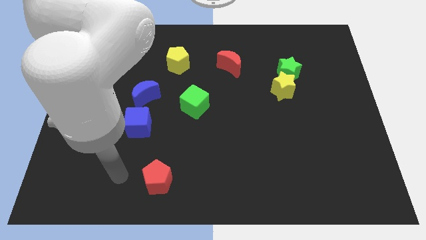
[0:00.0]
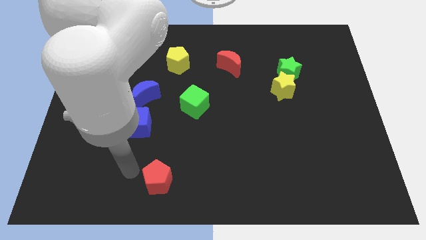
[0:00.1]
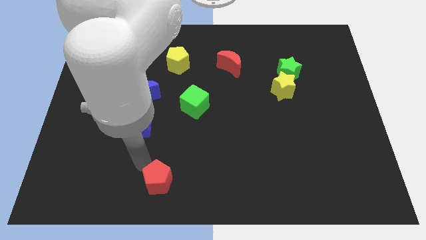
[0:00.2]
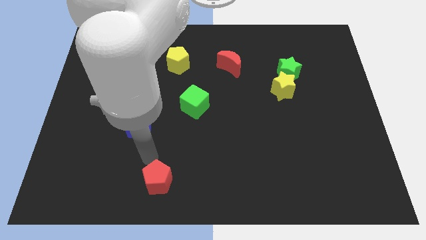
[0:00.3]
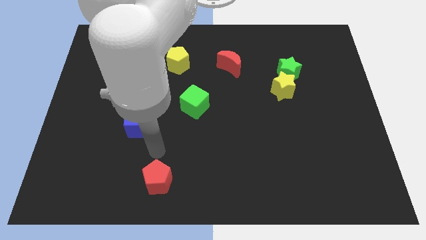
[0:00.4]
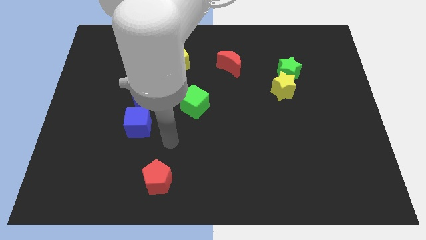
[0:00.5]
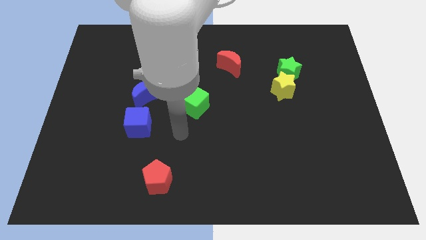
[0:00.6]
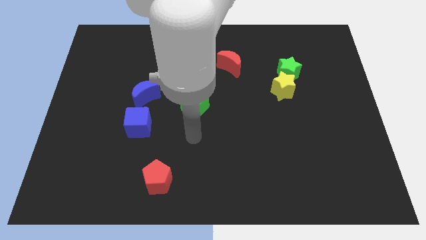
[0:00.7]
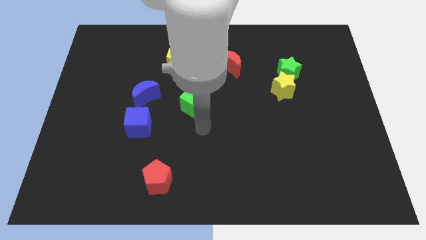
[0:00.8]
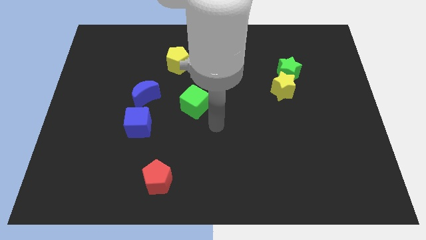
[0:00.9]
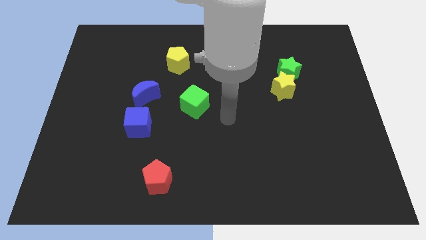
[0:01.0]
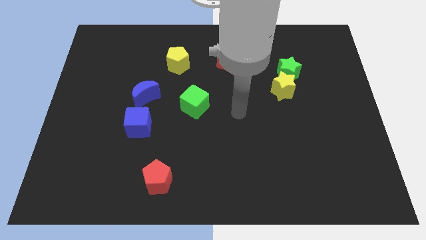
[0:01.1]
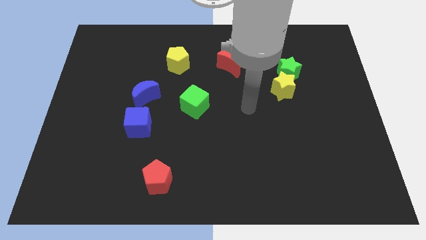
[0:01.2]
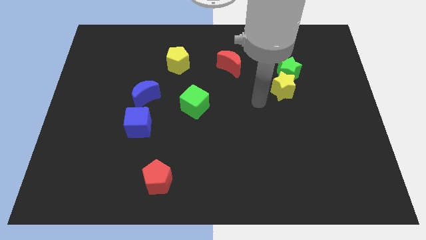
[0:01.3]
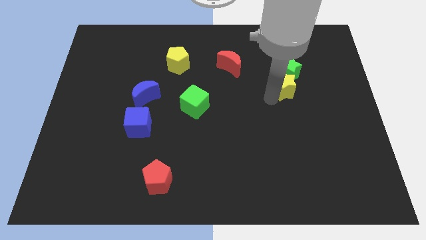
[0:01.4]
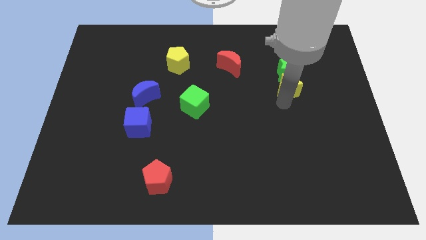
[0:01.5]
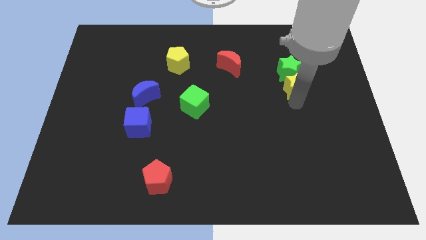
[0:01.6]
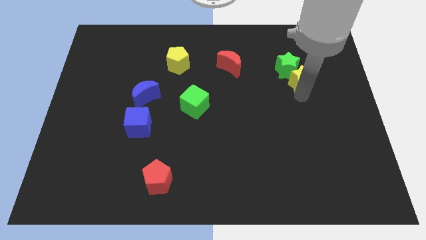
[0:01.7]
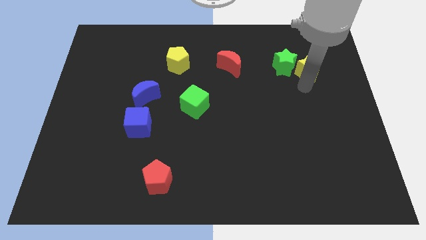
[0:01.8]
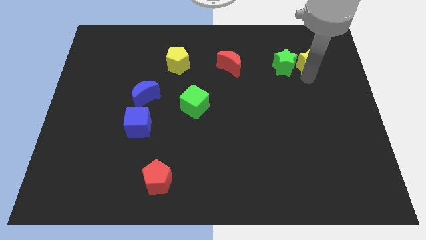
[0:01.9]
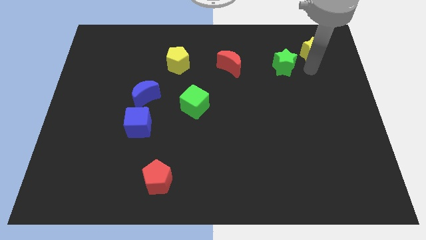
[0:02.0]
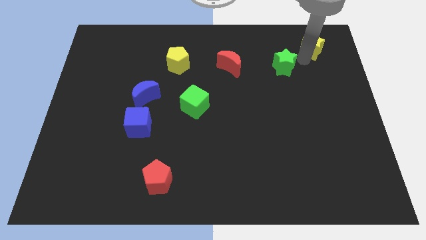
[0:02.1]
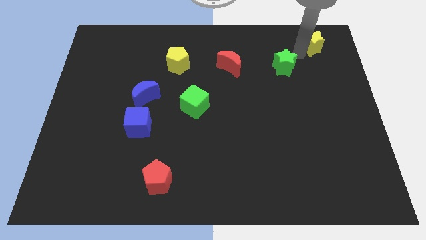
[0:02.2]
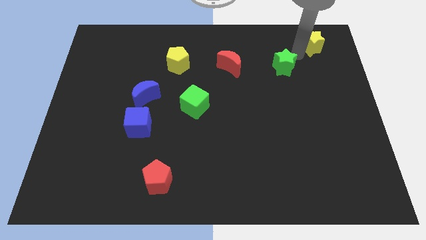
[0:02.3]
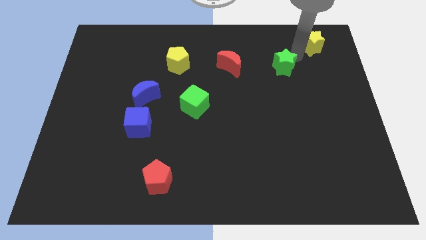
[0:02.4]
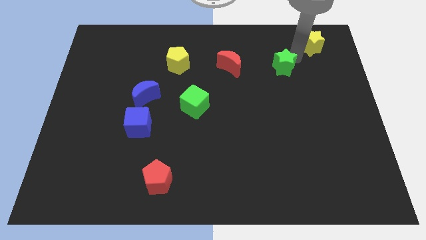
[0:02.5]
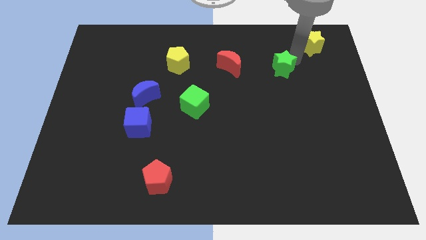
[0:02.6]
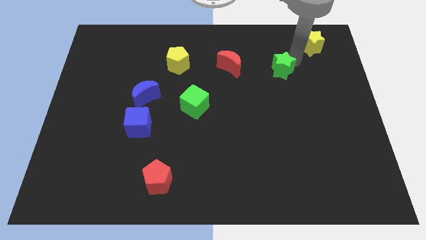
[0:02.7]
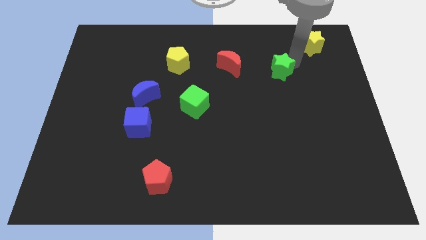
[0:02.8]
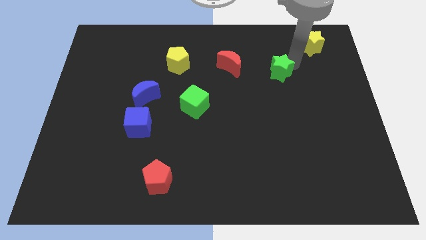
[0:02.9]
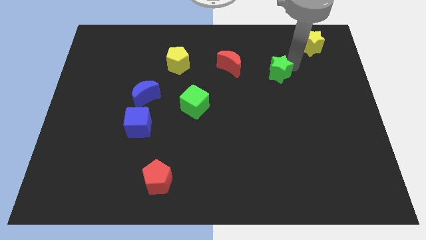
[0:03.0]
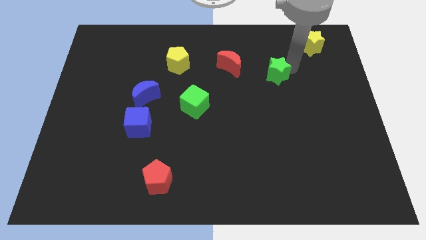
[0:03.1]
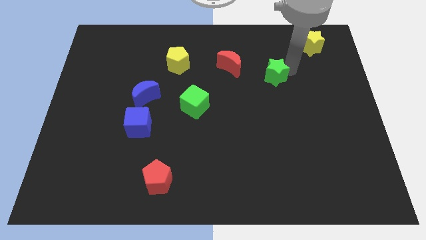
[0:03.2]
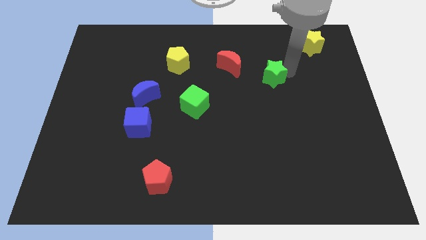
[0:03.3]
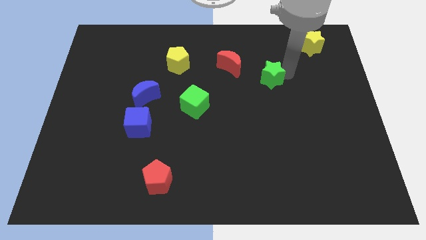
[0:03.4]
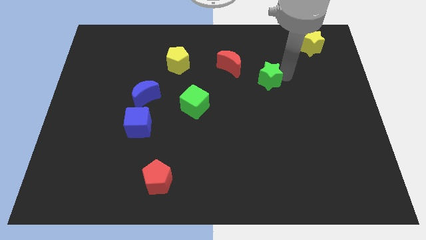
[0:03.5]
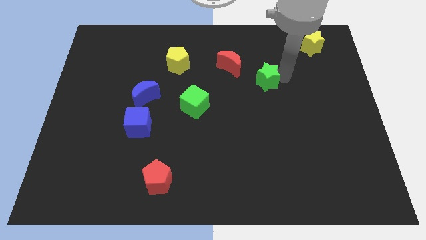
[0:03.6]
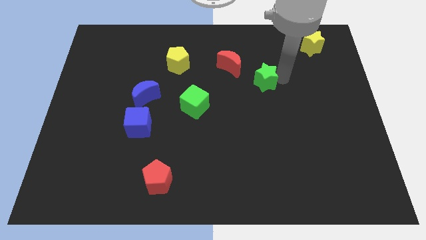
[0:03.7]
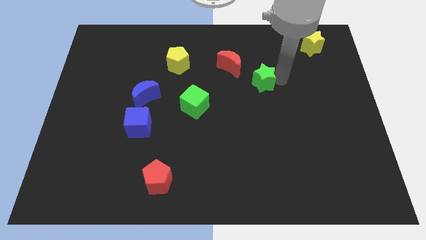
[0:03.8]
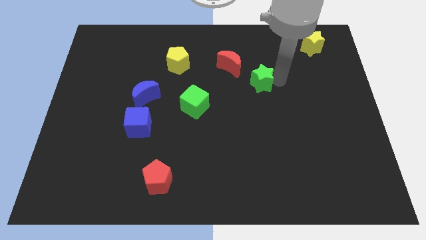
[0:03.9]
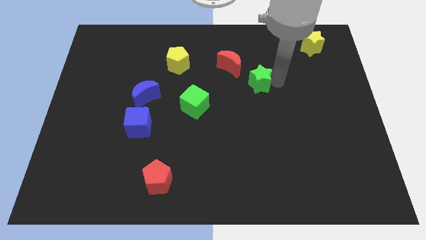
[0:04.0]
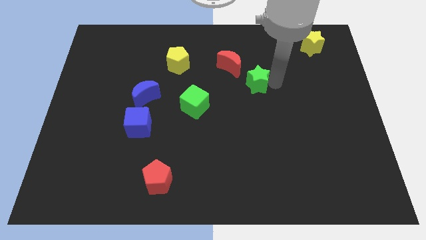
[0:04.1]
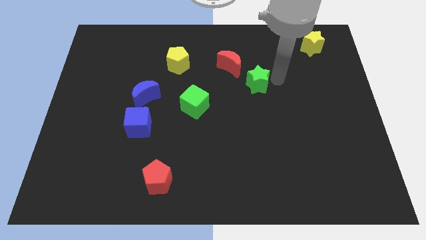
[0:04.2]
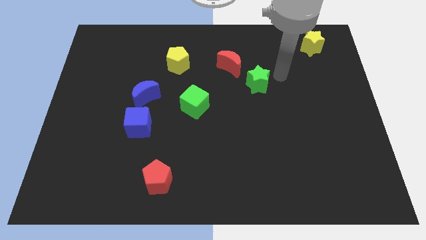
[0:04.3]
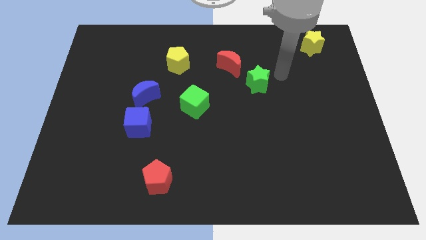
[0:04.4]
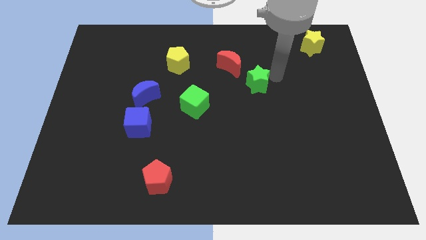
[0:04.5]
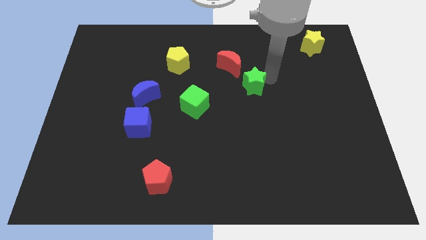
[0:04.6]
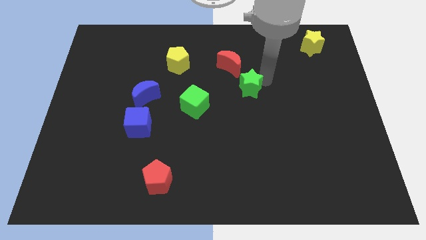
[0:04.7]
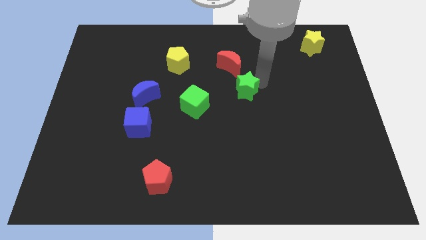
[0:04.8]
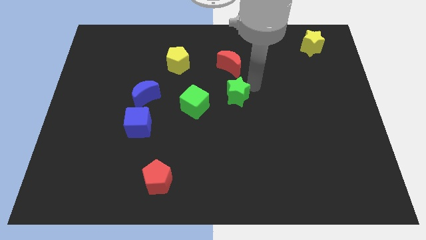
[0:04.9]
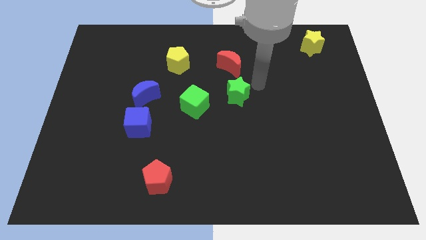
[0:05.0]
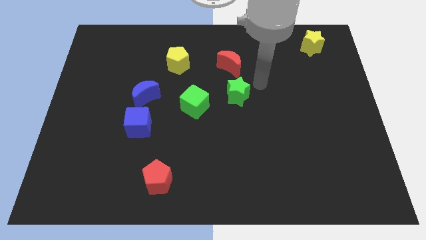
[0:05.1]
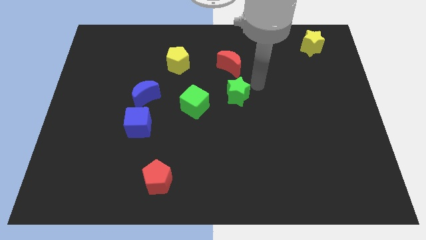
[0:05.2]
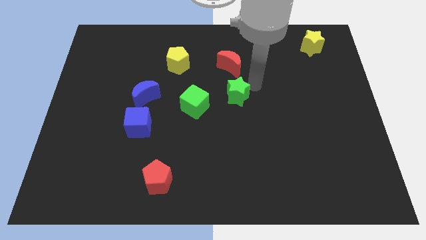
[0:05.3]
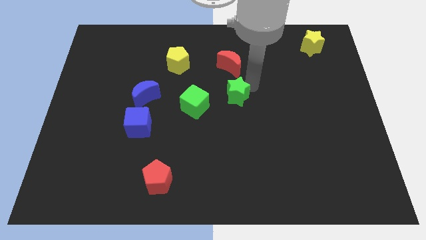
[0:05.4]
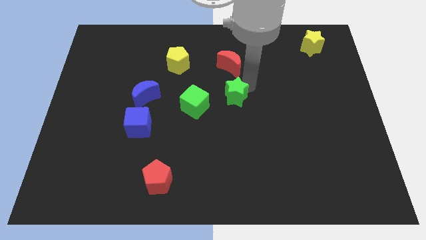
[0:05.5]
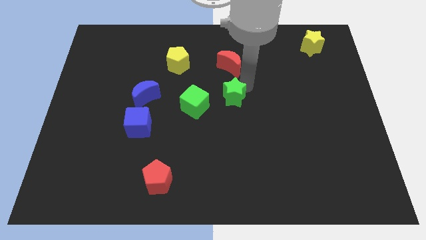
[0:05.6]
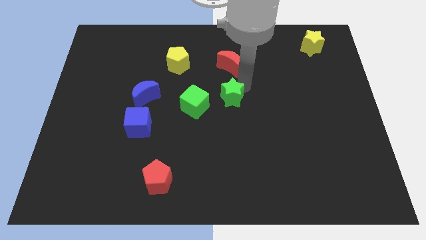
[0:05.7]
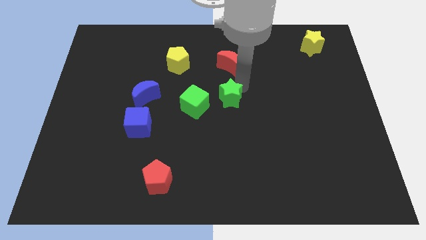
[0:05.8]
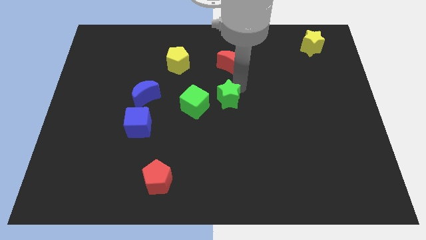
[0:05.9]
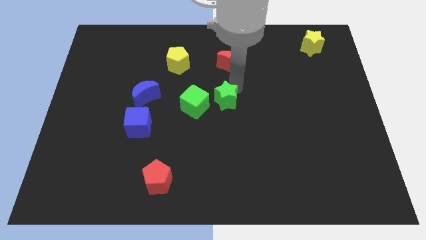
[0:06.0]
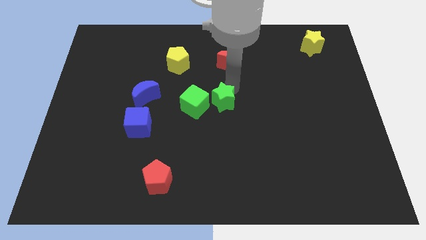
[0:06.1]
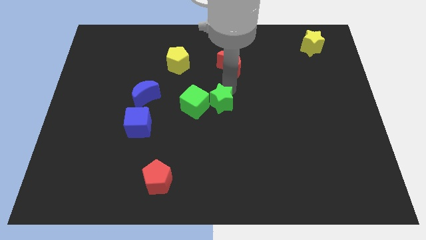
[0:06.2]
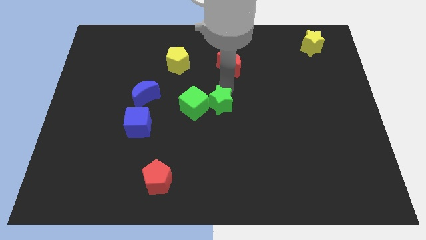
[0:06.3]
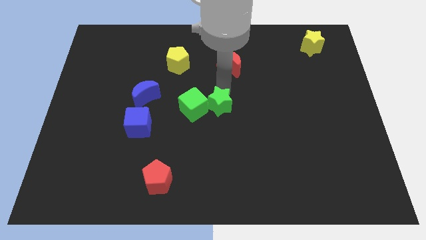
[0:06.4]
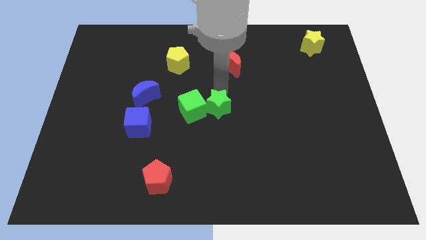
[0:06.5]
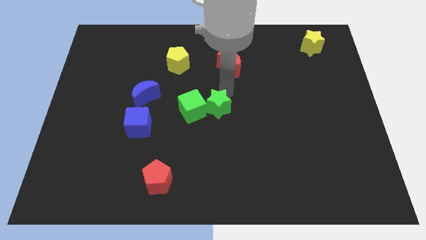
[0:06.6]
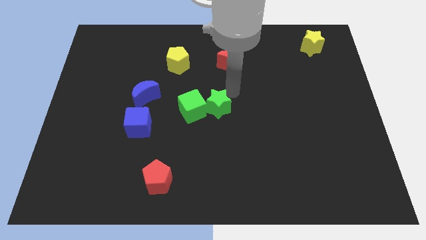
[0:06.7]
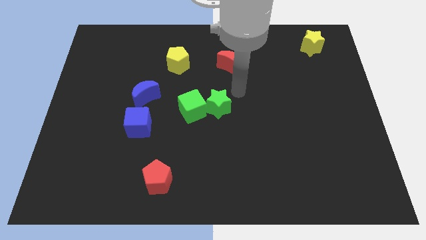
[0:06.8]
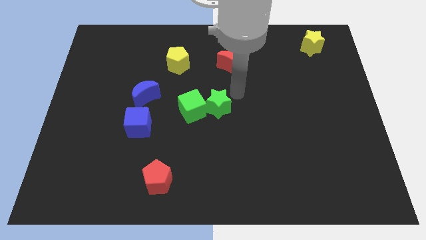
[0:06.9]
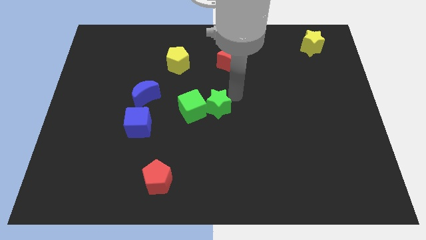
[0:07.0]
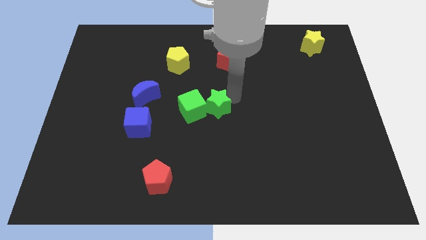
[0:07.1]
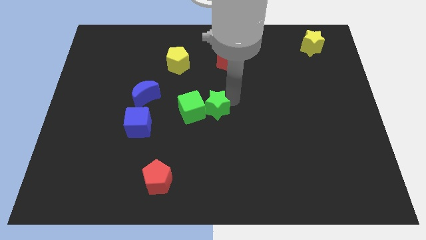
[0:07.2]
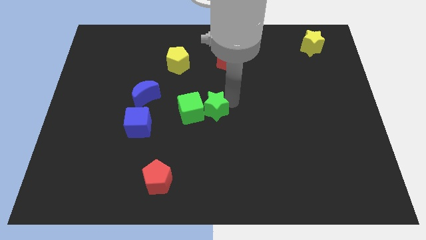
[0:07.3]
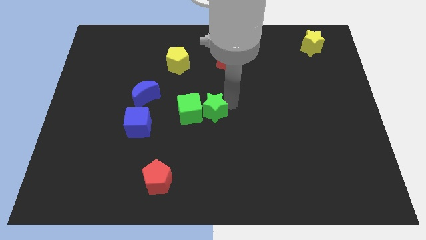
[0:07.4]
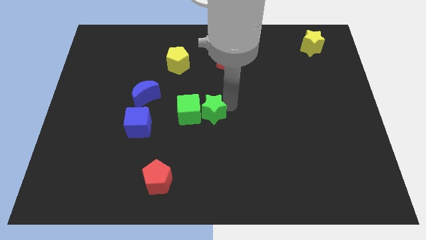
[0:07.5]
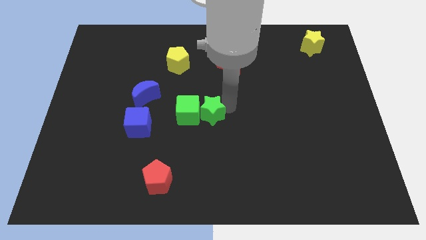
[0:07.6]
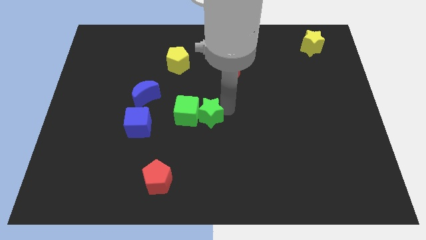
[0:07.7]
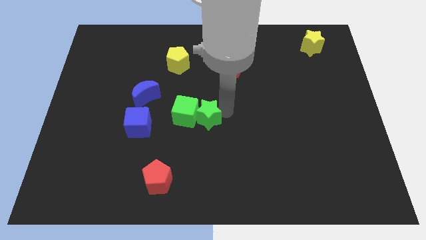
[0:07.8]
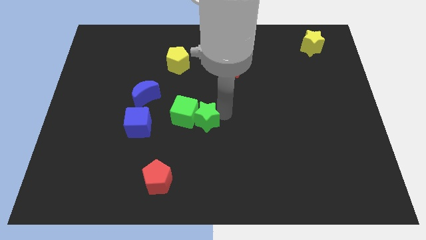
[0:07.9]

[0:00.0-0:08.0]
push the green star just right of the blue cube
